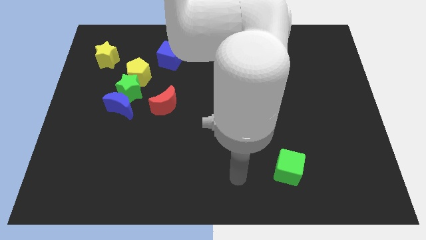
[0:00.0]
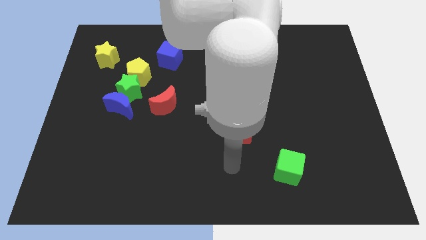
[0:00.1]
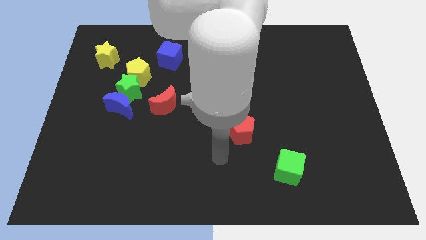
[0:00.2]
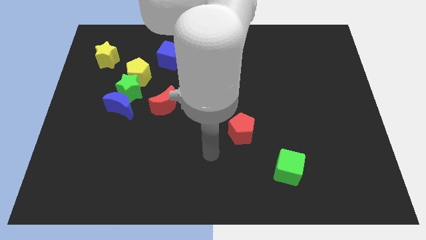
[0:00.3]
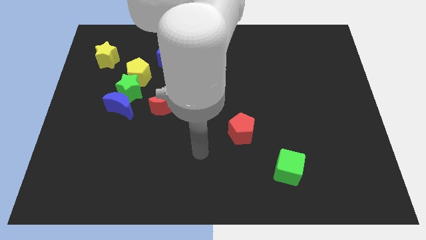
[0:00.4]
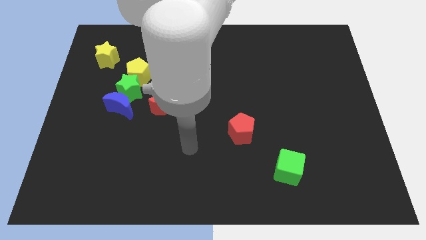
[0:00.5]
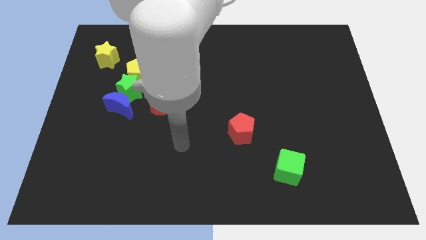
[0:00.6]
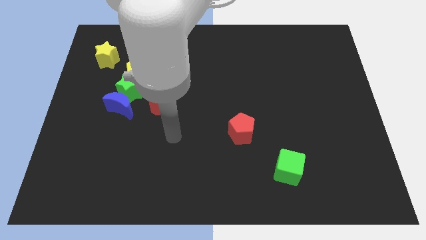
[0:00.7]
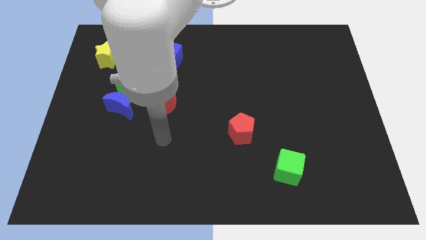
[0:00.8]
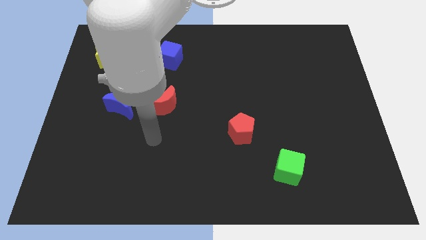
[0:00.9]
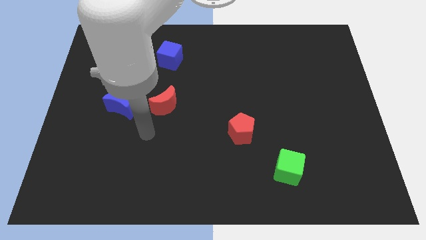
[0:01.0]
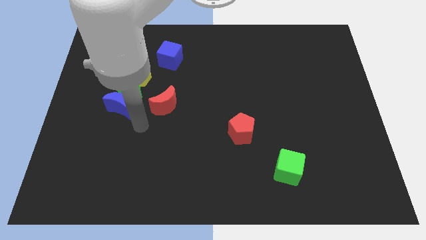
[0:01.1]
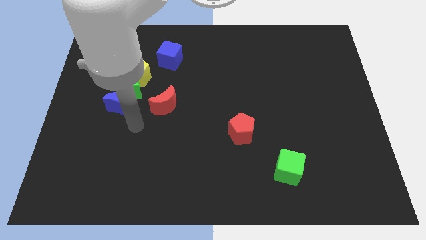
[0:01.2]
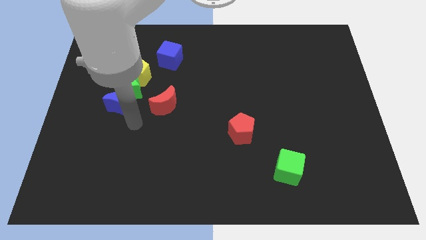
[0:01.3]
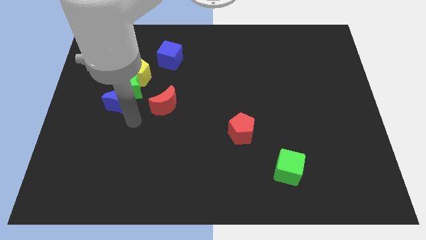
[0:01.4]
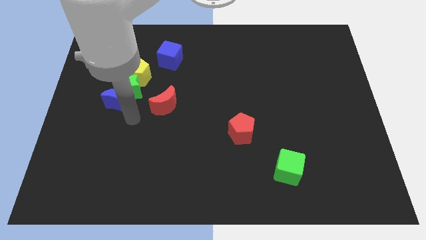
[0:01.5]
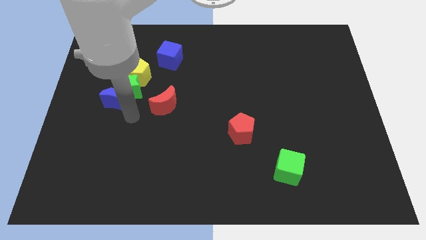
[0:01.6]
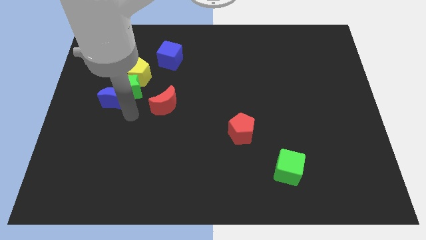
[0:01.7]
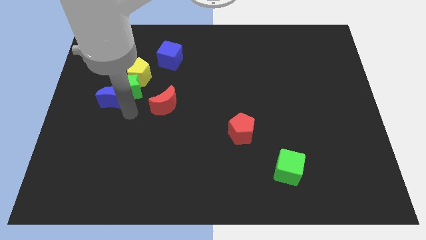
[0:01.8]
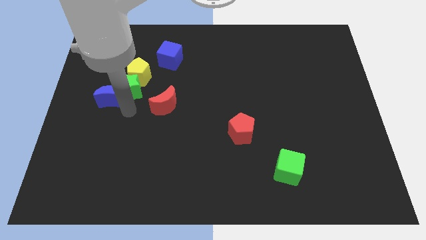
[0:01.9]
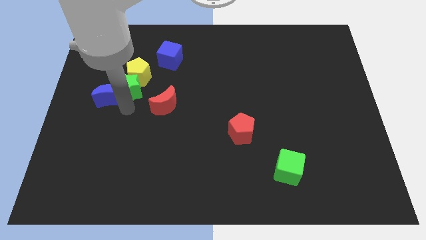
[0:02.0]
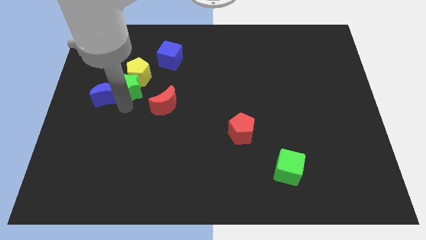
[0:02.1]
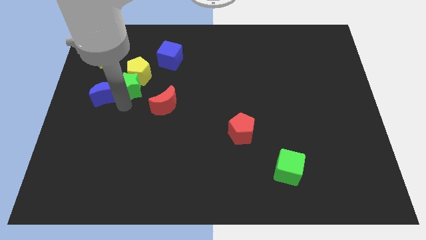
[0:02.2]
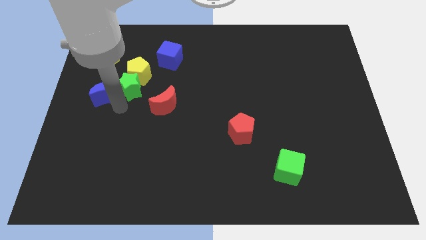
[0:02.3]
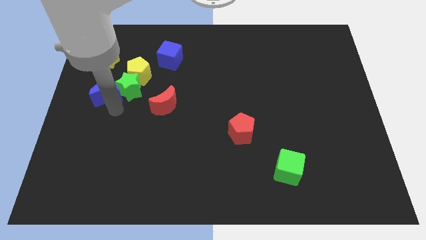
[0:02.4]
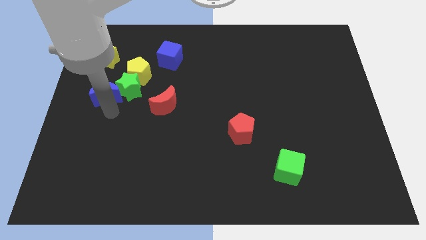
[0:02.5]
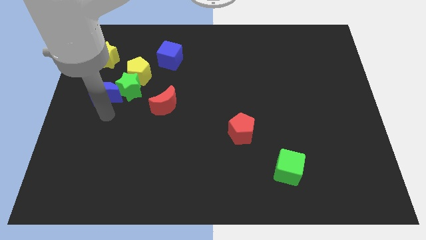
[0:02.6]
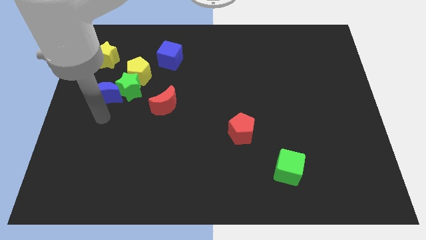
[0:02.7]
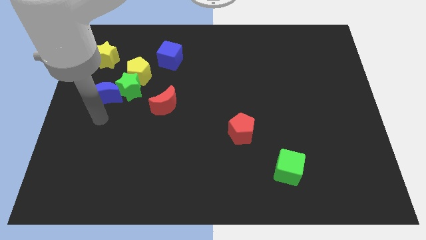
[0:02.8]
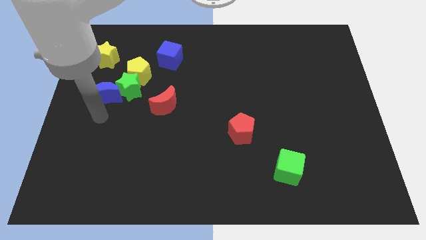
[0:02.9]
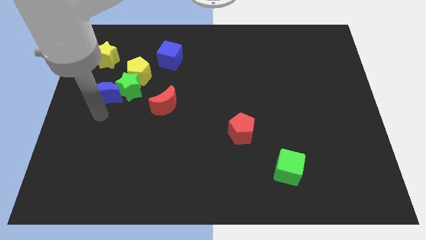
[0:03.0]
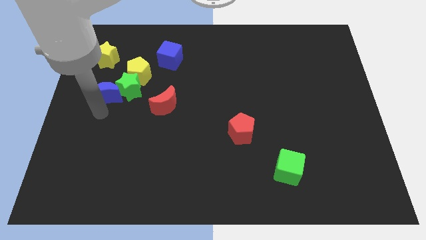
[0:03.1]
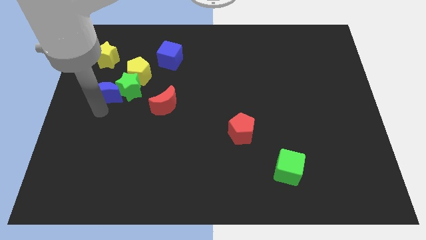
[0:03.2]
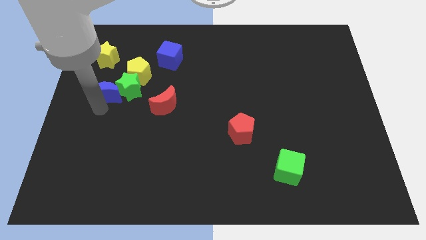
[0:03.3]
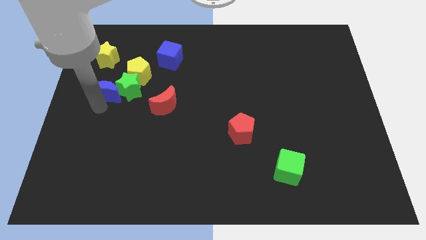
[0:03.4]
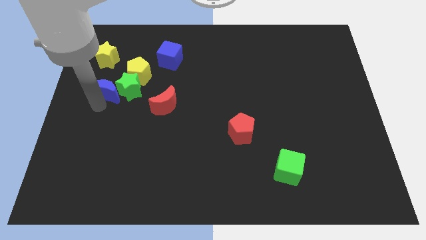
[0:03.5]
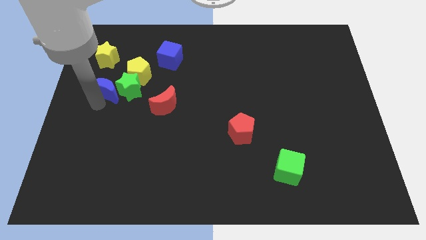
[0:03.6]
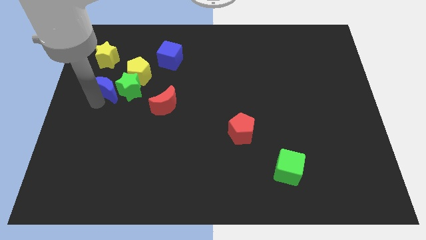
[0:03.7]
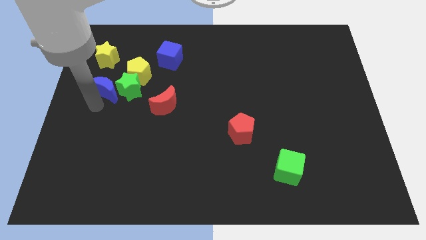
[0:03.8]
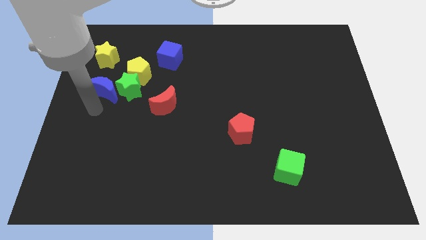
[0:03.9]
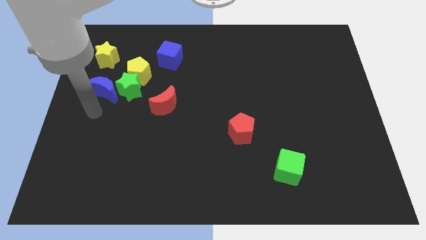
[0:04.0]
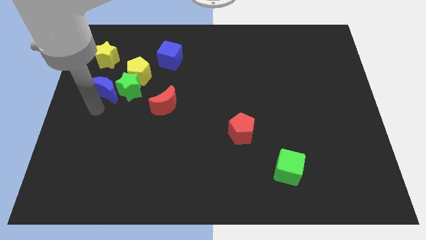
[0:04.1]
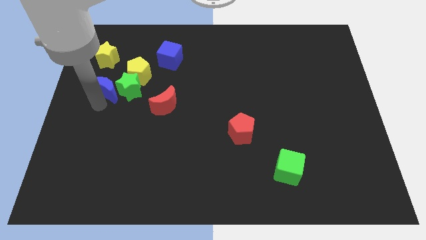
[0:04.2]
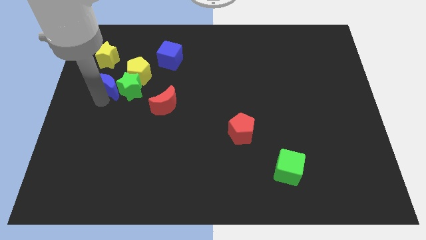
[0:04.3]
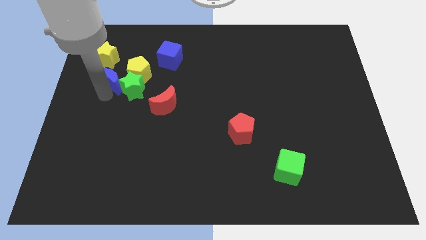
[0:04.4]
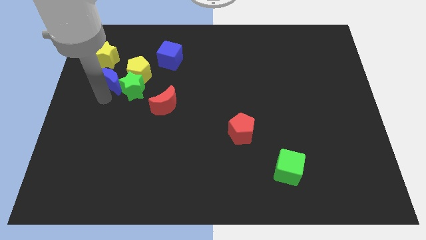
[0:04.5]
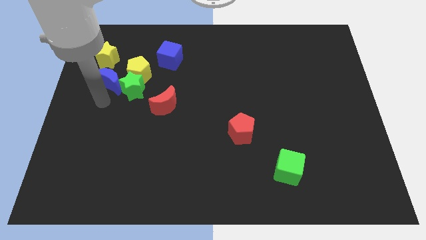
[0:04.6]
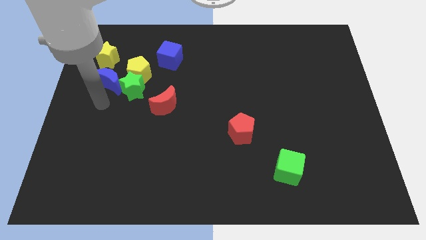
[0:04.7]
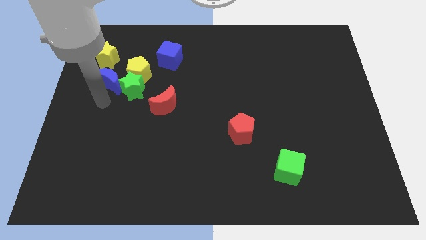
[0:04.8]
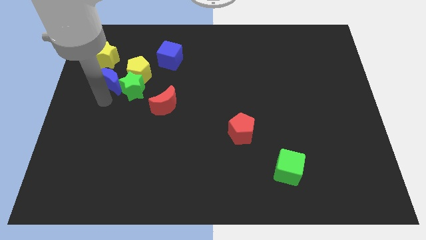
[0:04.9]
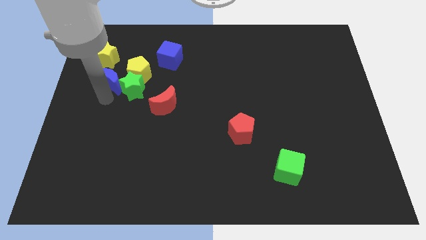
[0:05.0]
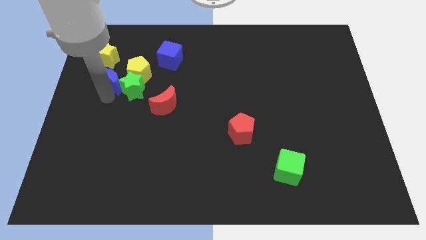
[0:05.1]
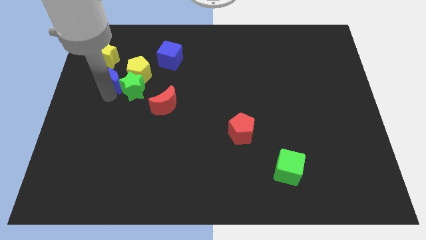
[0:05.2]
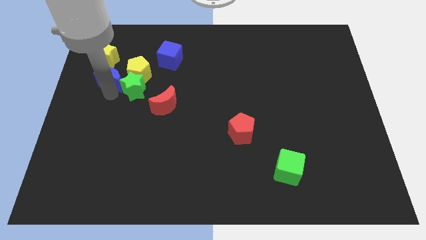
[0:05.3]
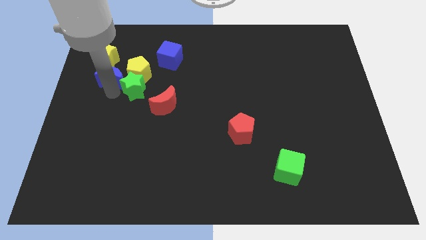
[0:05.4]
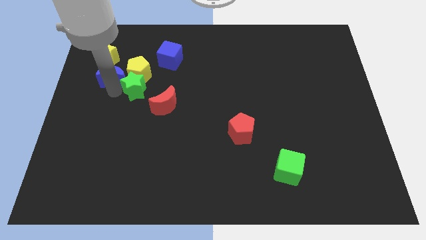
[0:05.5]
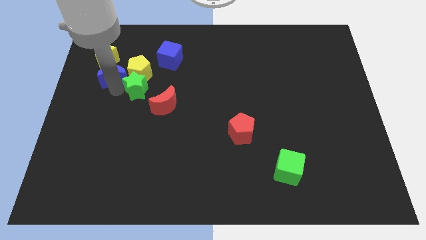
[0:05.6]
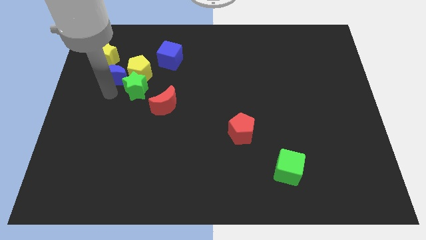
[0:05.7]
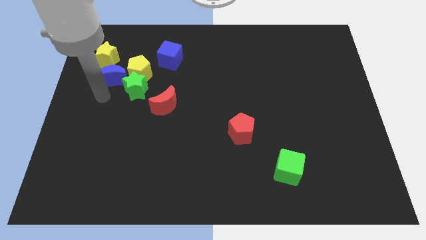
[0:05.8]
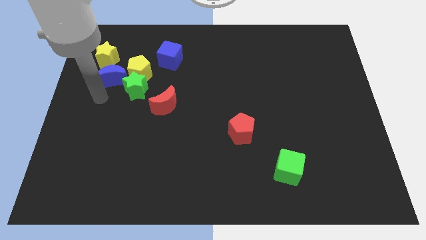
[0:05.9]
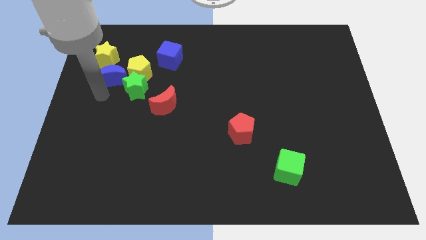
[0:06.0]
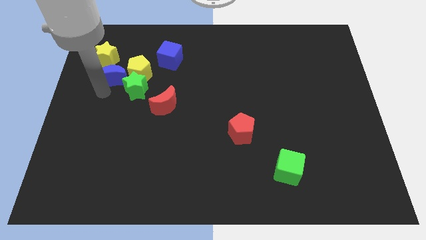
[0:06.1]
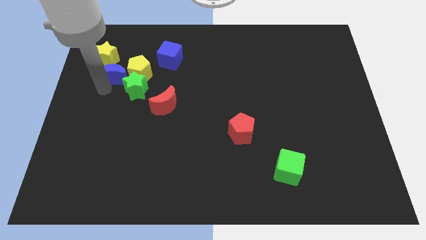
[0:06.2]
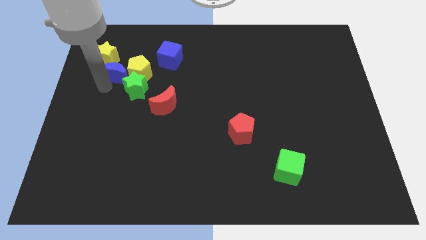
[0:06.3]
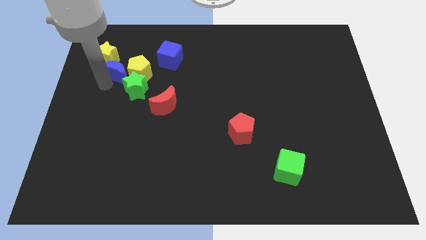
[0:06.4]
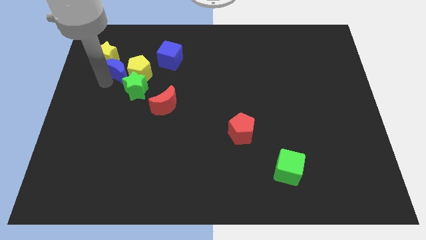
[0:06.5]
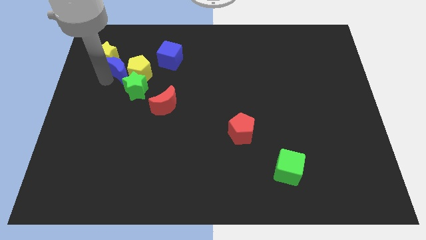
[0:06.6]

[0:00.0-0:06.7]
move the blue moon just left of the blue cube
